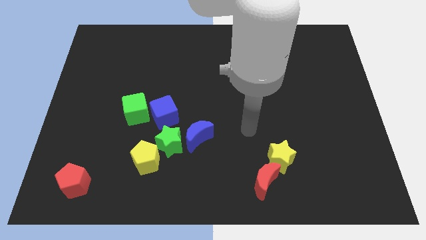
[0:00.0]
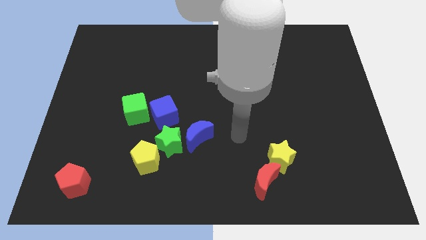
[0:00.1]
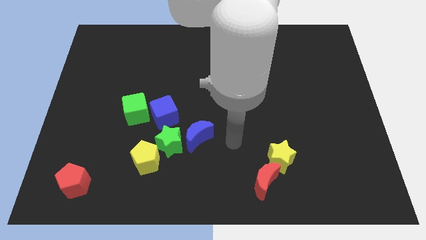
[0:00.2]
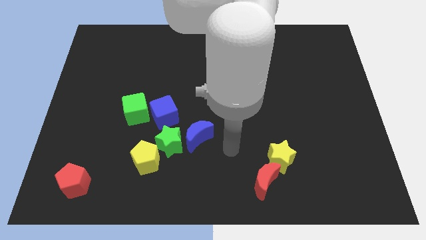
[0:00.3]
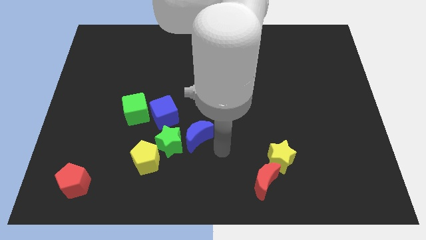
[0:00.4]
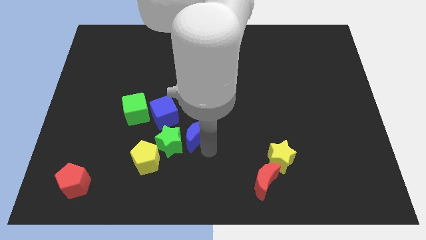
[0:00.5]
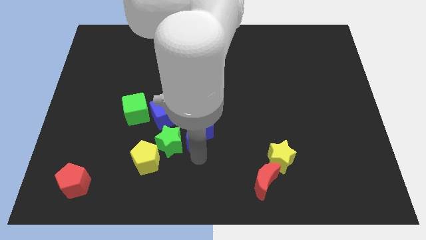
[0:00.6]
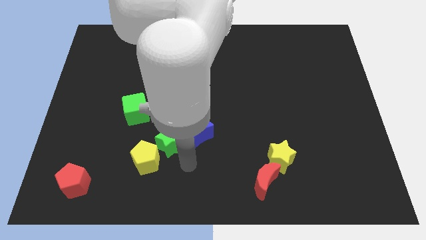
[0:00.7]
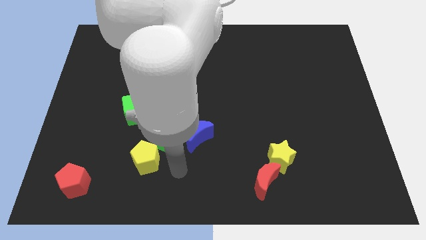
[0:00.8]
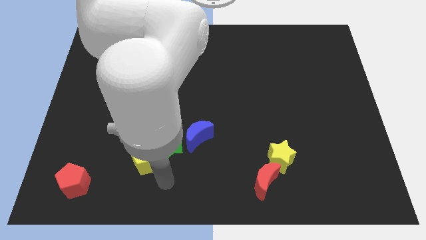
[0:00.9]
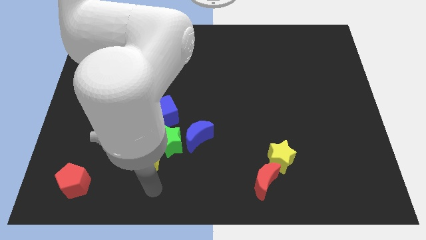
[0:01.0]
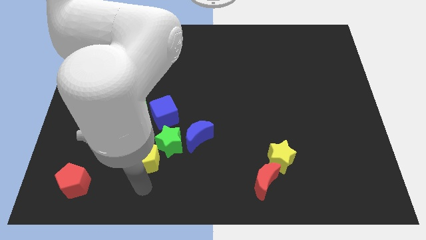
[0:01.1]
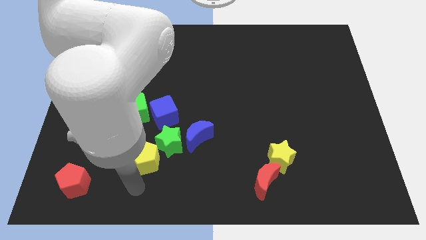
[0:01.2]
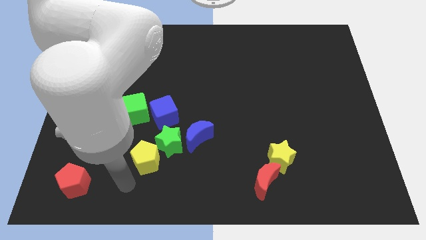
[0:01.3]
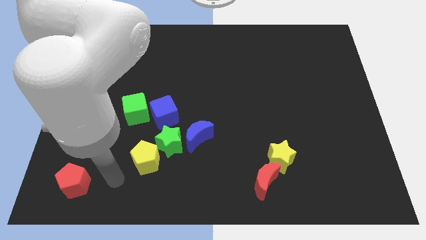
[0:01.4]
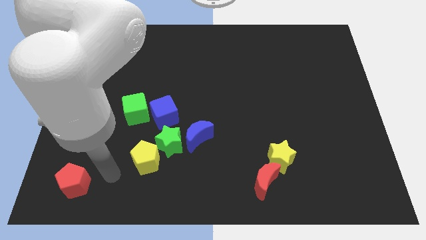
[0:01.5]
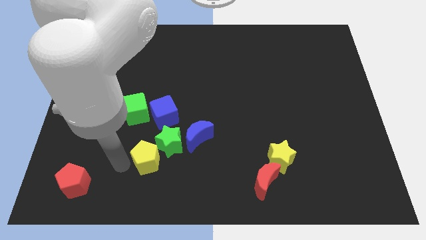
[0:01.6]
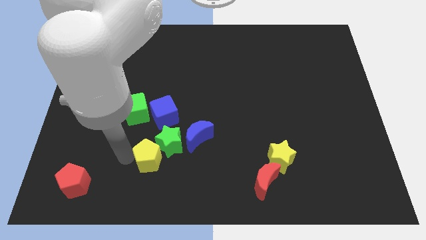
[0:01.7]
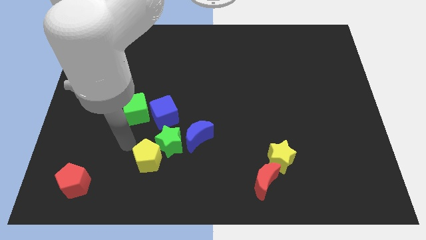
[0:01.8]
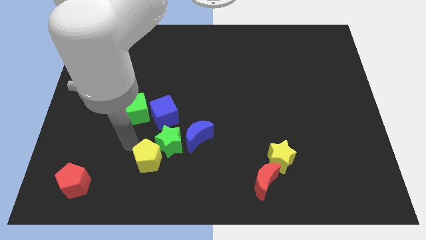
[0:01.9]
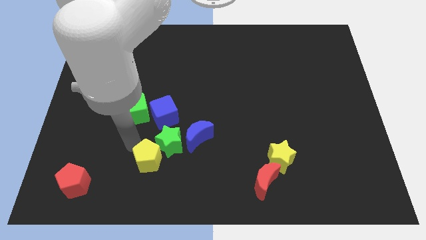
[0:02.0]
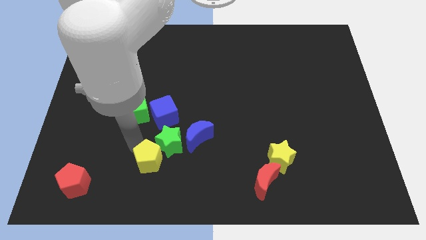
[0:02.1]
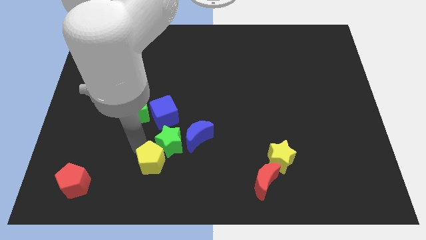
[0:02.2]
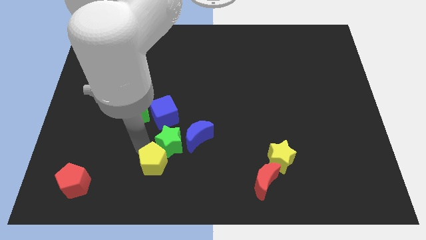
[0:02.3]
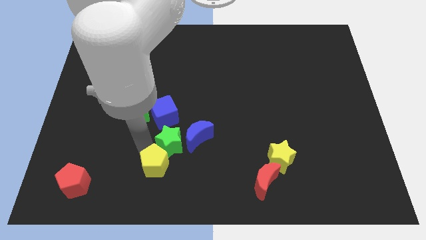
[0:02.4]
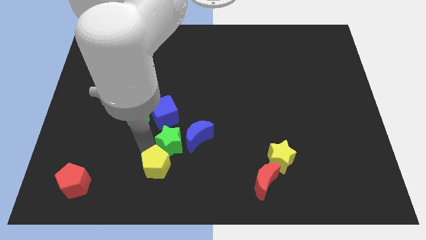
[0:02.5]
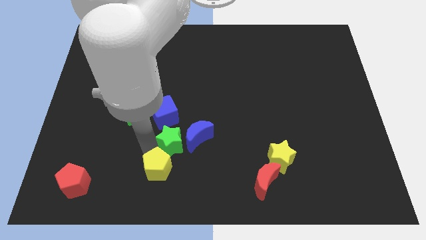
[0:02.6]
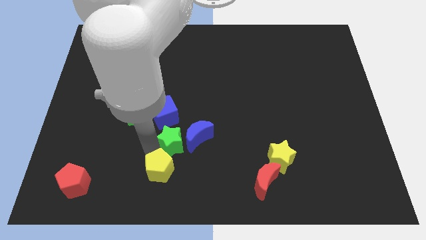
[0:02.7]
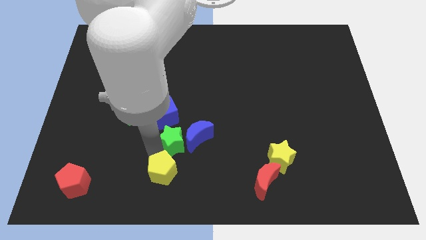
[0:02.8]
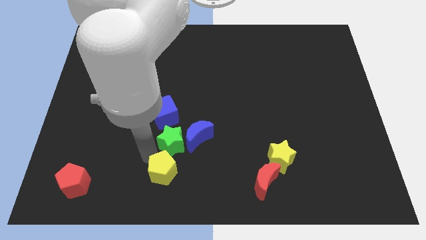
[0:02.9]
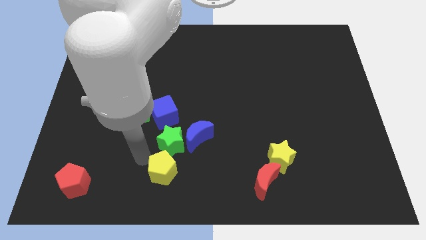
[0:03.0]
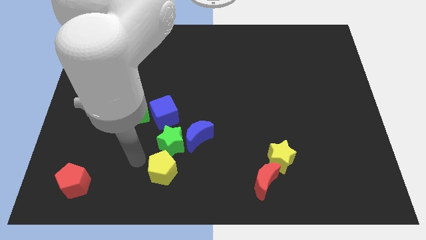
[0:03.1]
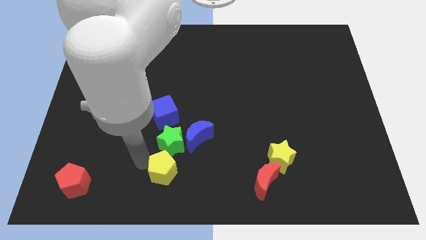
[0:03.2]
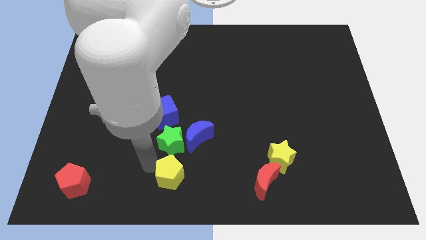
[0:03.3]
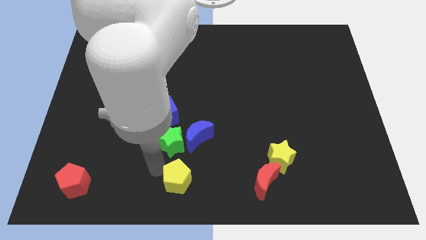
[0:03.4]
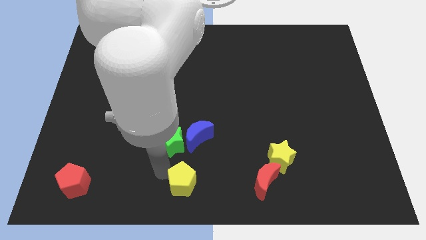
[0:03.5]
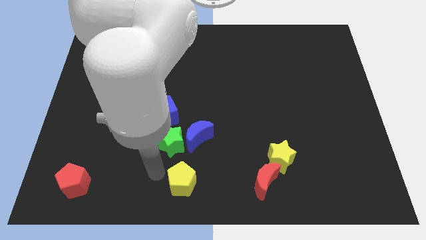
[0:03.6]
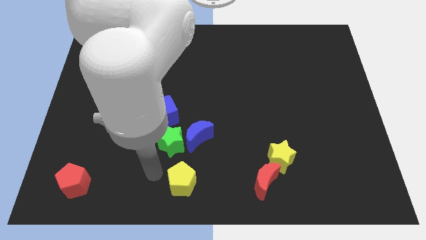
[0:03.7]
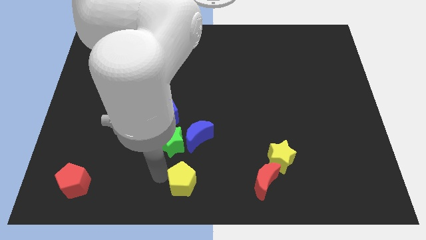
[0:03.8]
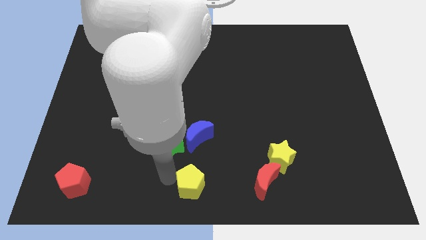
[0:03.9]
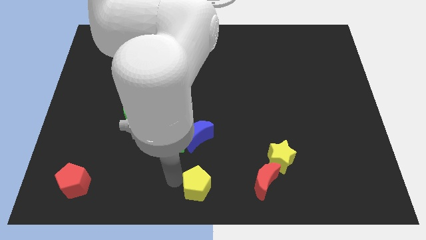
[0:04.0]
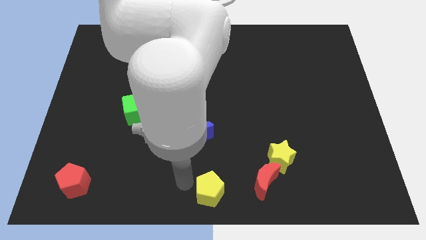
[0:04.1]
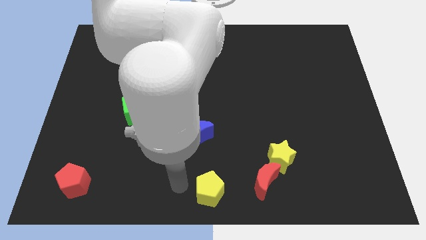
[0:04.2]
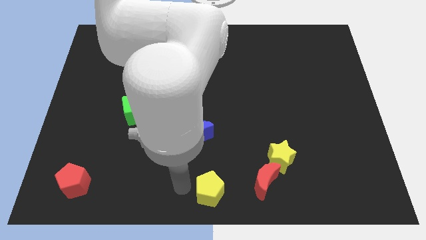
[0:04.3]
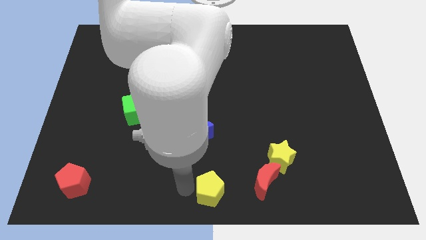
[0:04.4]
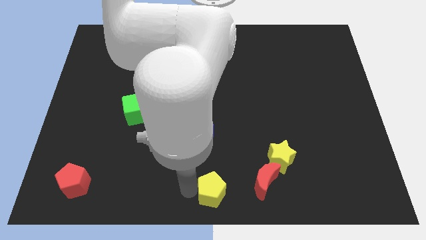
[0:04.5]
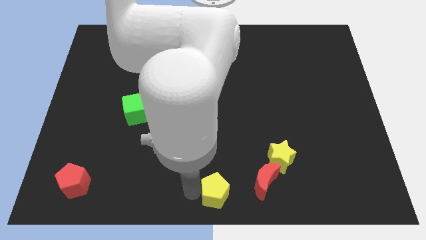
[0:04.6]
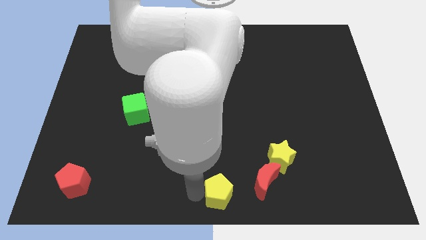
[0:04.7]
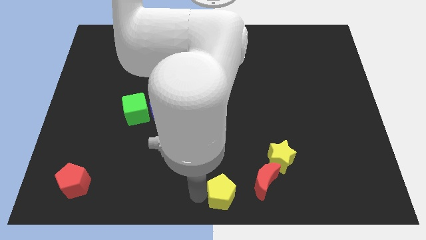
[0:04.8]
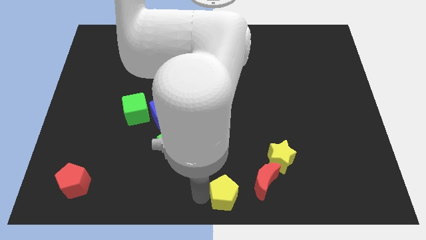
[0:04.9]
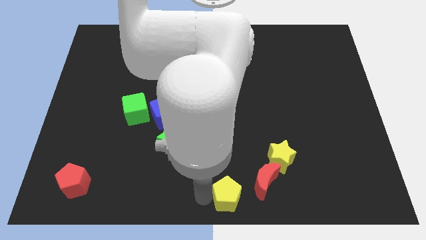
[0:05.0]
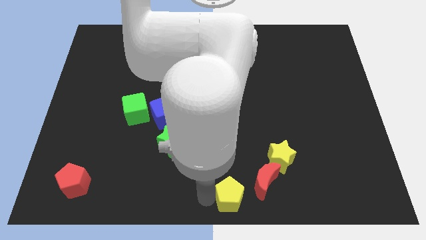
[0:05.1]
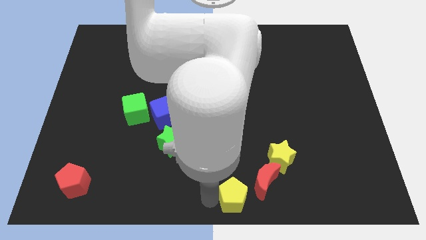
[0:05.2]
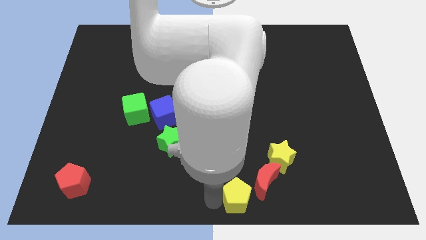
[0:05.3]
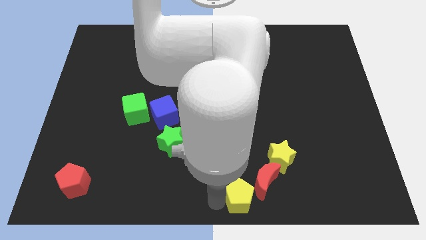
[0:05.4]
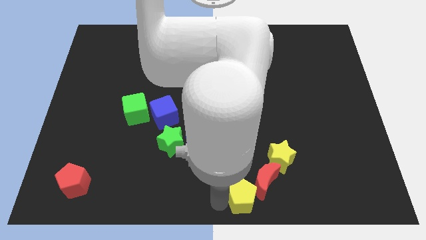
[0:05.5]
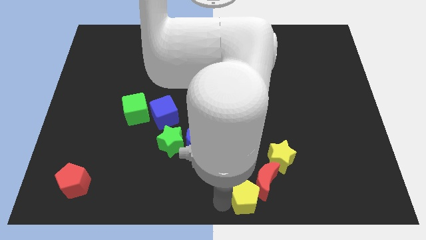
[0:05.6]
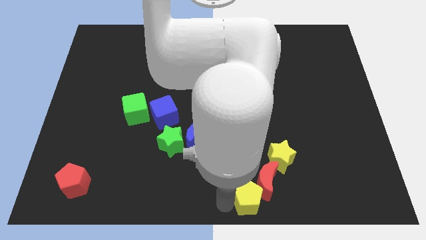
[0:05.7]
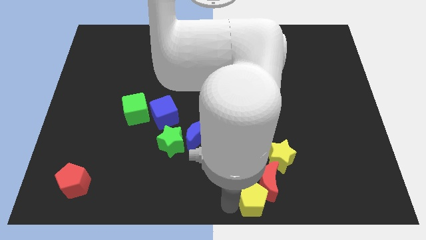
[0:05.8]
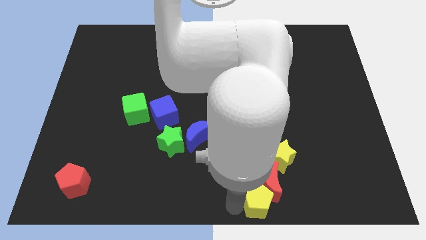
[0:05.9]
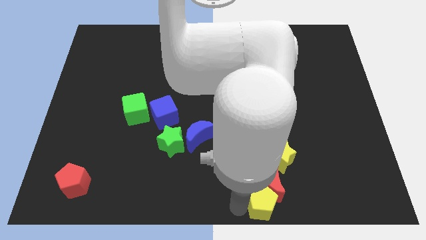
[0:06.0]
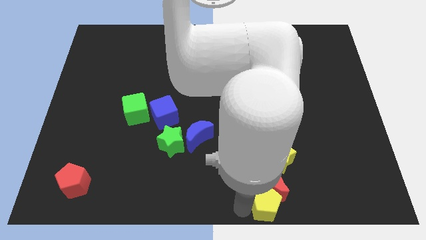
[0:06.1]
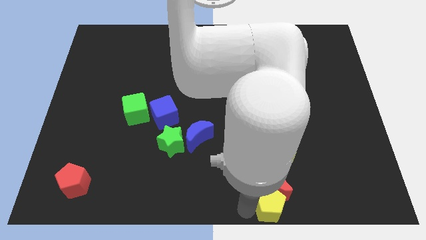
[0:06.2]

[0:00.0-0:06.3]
slide the yellow pentagon to the right

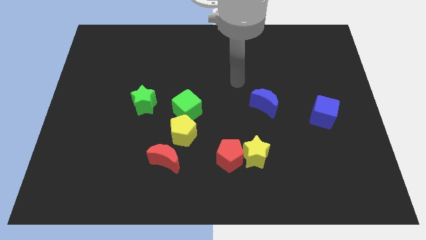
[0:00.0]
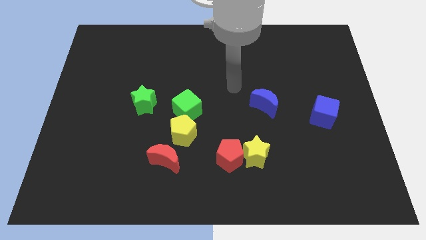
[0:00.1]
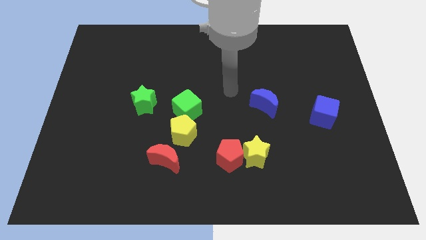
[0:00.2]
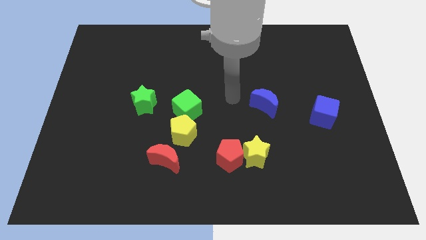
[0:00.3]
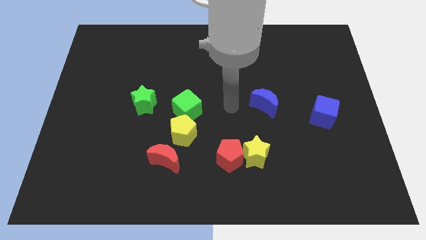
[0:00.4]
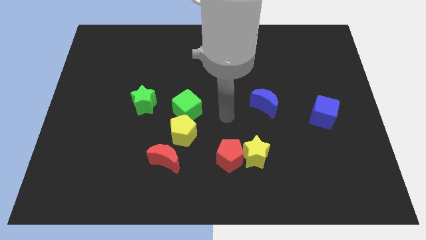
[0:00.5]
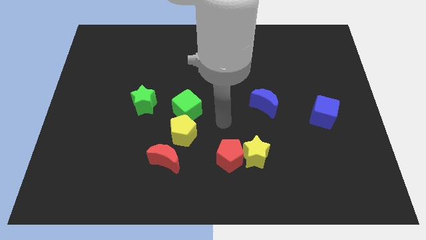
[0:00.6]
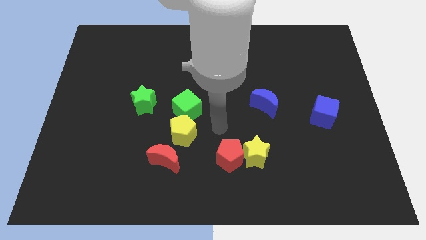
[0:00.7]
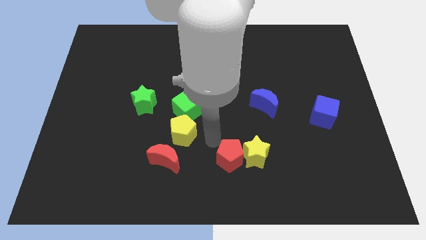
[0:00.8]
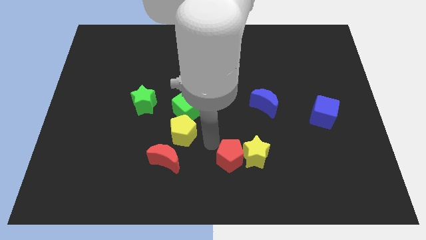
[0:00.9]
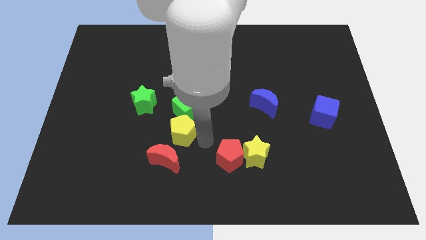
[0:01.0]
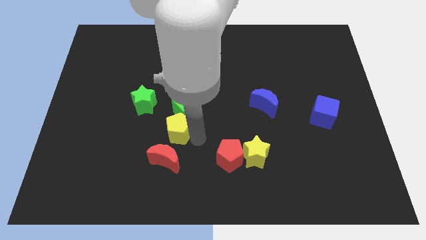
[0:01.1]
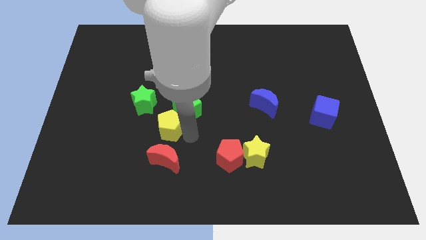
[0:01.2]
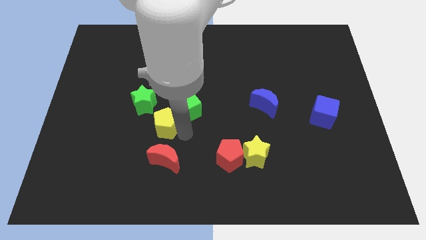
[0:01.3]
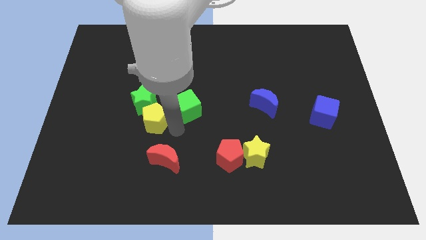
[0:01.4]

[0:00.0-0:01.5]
push the yellow pentagon a bit upwards and to the left

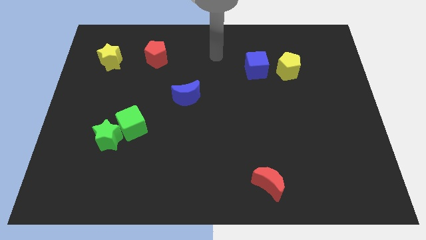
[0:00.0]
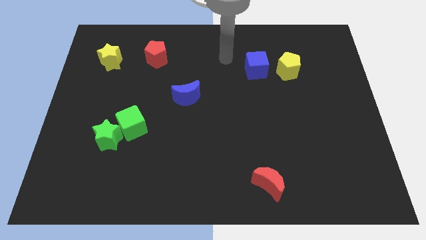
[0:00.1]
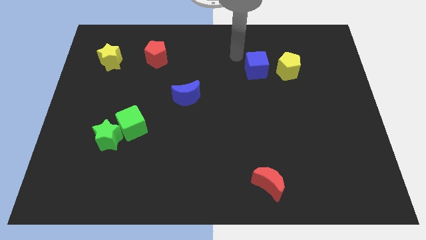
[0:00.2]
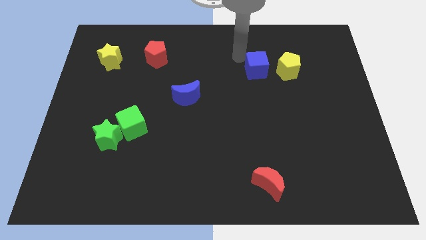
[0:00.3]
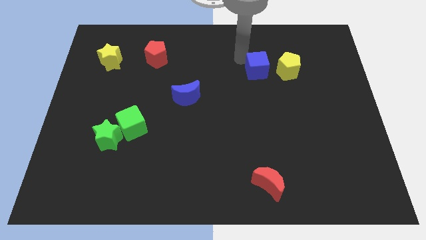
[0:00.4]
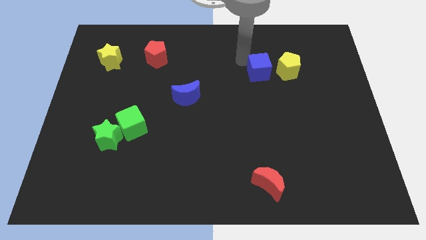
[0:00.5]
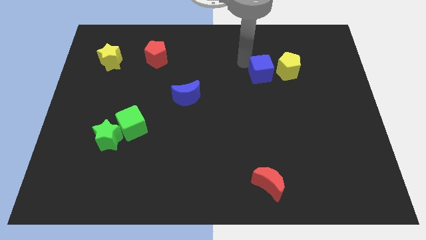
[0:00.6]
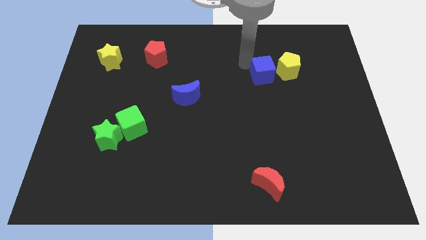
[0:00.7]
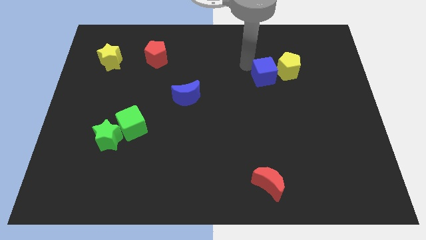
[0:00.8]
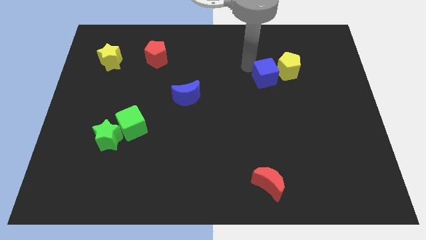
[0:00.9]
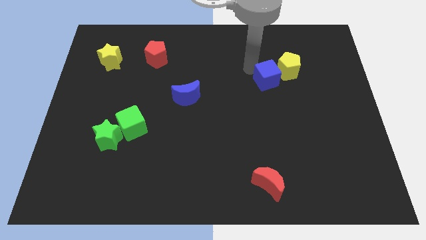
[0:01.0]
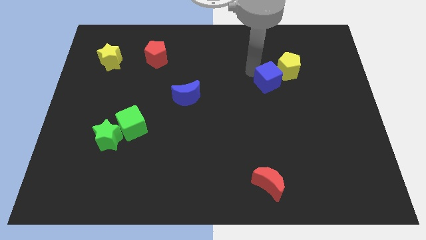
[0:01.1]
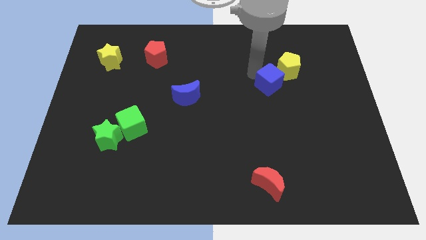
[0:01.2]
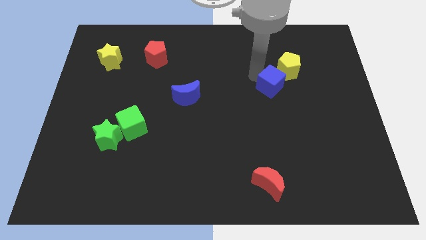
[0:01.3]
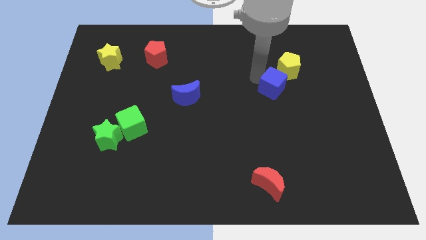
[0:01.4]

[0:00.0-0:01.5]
slightly slide the blue cube down and then right
